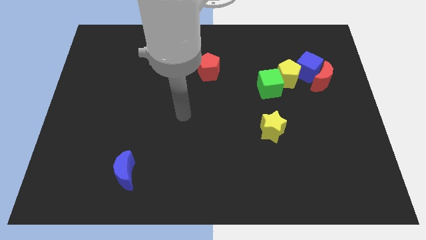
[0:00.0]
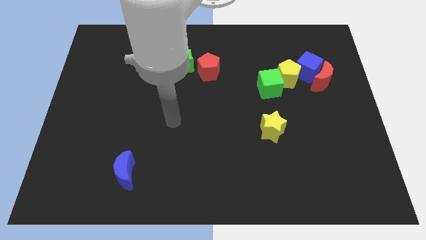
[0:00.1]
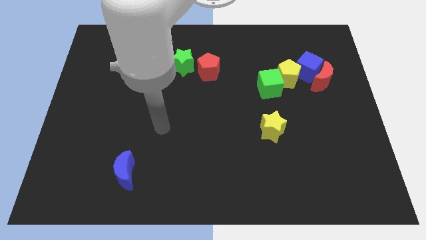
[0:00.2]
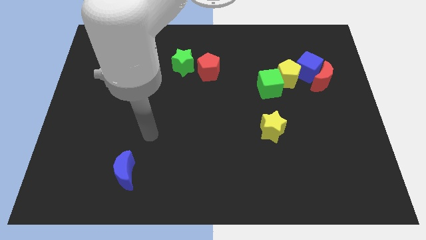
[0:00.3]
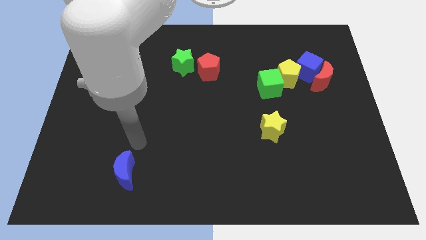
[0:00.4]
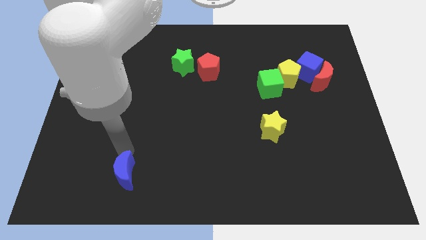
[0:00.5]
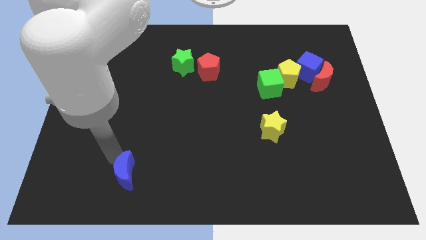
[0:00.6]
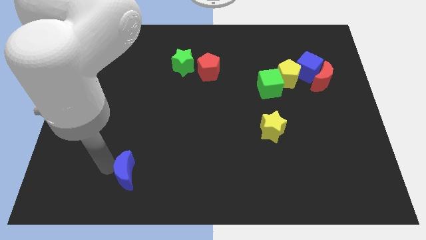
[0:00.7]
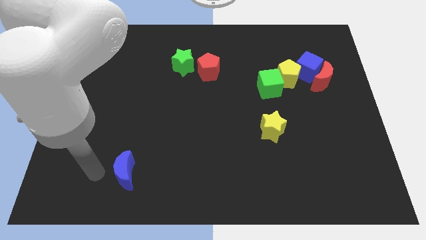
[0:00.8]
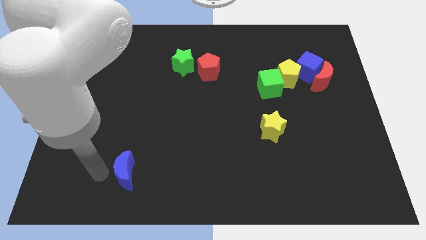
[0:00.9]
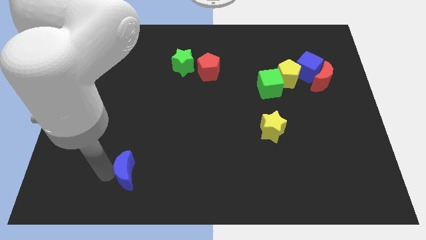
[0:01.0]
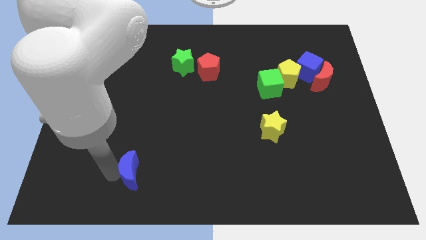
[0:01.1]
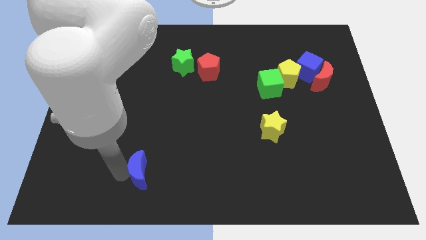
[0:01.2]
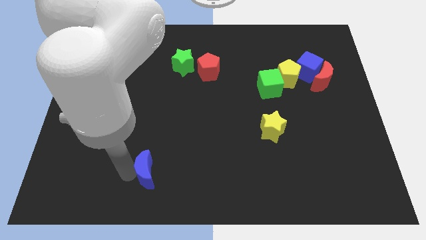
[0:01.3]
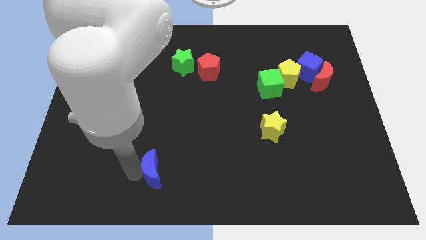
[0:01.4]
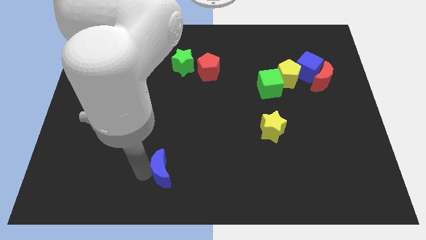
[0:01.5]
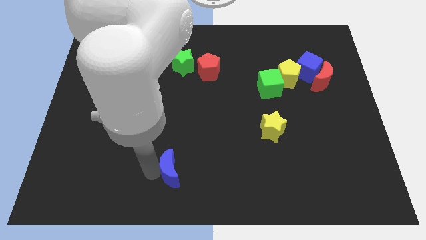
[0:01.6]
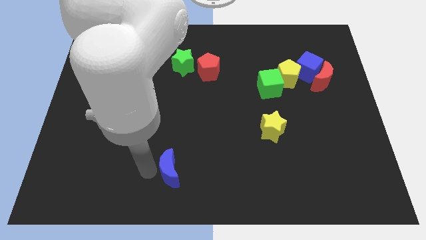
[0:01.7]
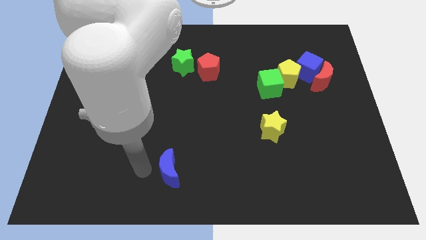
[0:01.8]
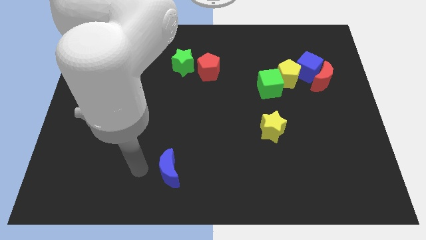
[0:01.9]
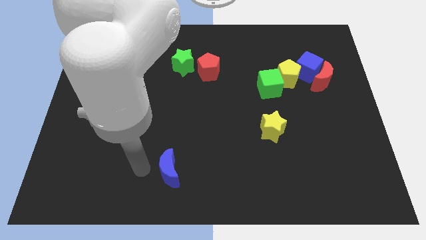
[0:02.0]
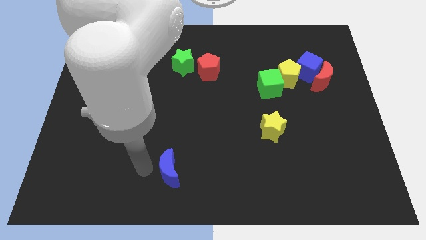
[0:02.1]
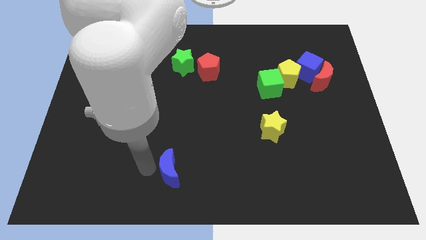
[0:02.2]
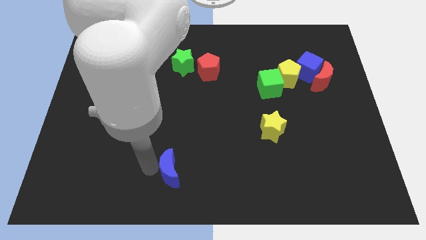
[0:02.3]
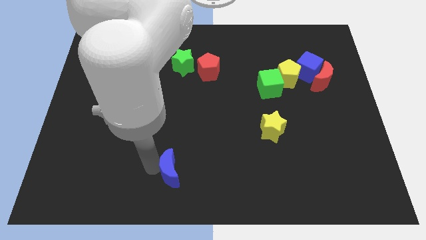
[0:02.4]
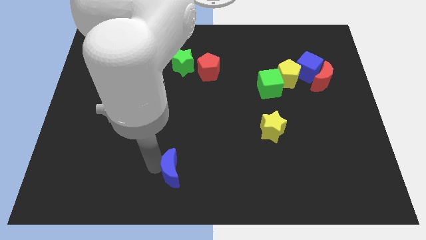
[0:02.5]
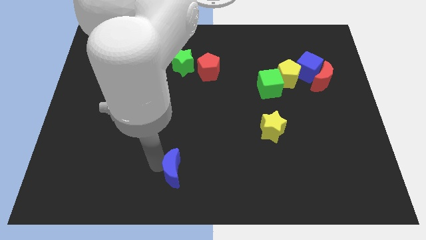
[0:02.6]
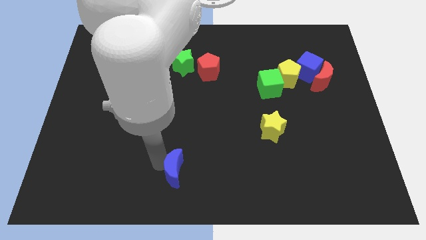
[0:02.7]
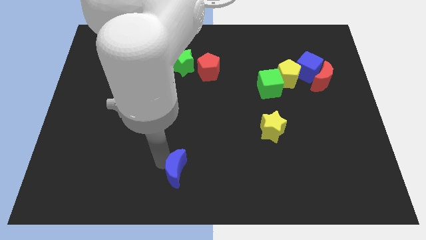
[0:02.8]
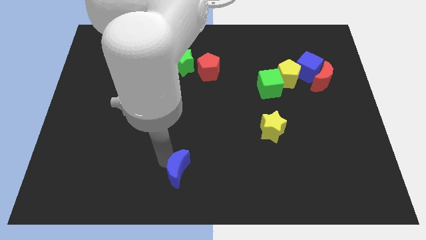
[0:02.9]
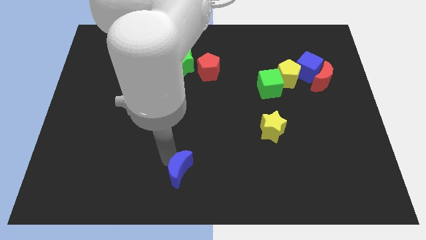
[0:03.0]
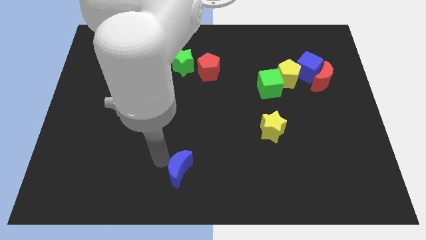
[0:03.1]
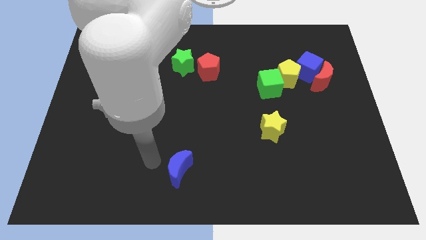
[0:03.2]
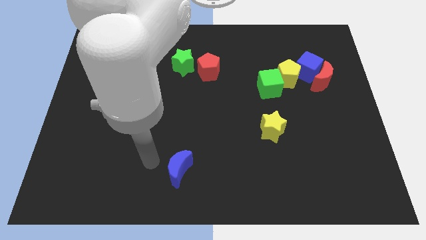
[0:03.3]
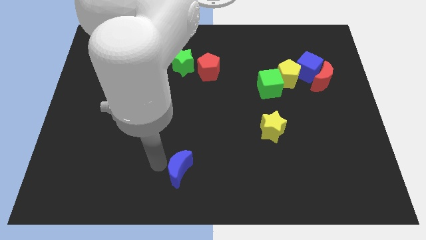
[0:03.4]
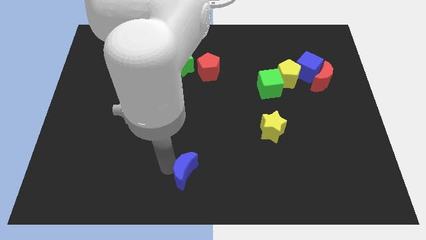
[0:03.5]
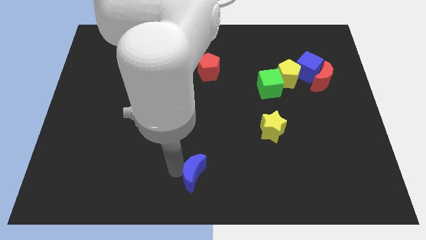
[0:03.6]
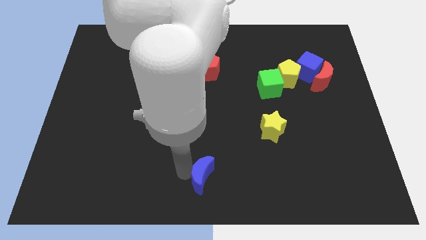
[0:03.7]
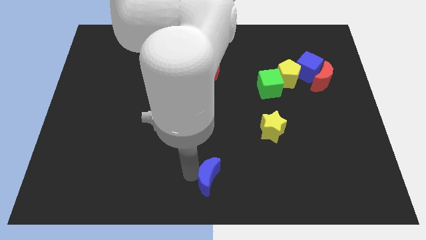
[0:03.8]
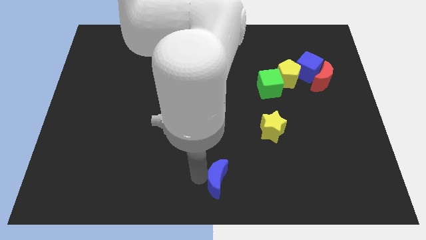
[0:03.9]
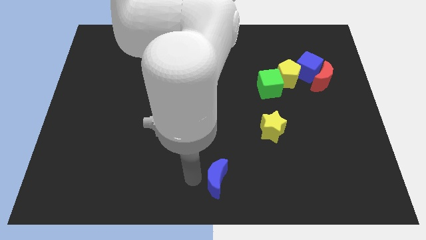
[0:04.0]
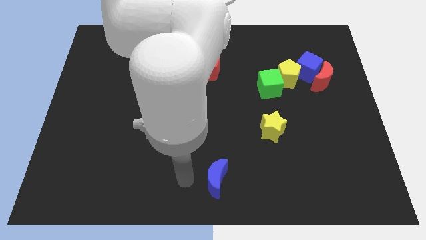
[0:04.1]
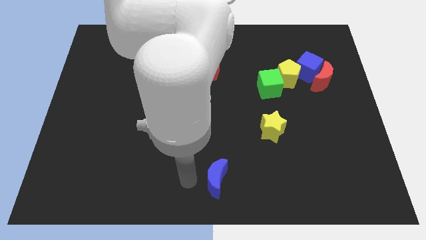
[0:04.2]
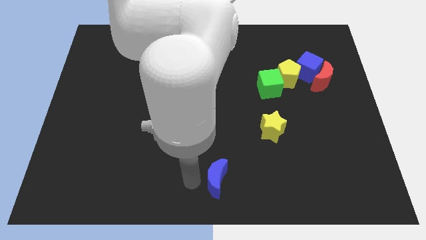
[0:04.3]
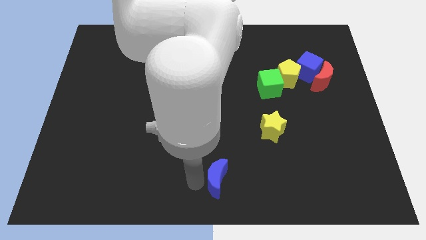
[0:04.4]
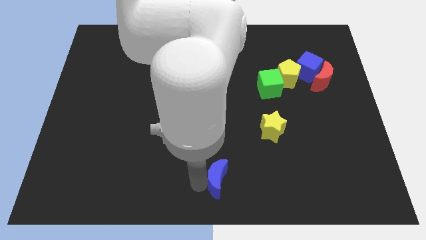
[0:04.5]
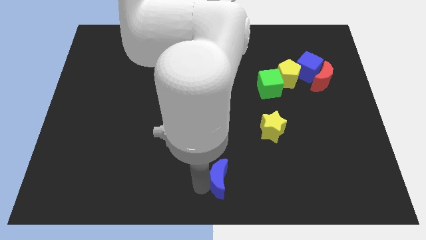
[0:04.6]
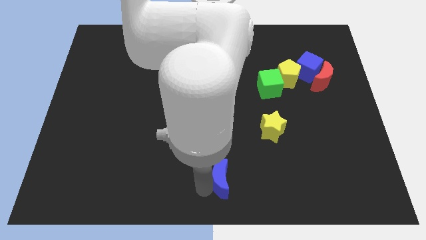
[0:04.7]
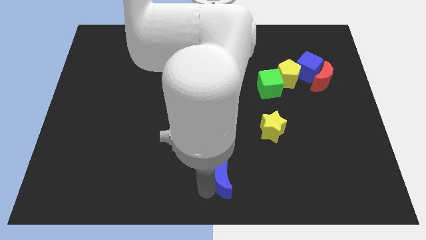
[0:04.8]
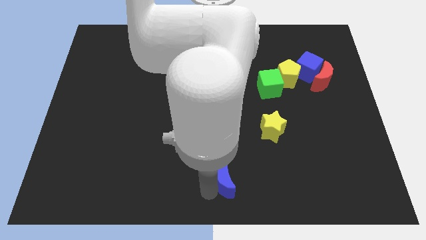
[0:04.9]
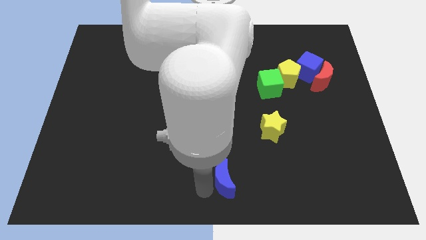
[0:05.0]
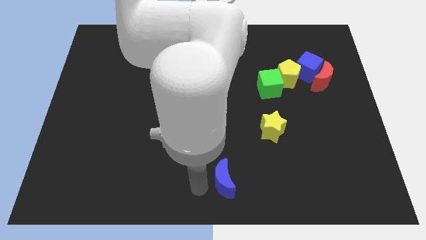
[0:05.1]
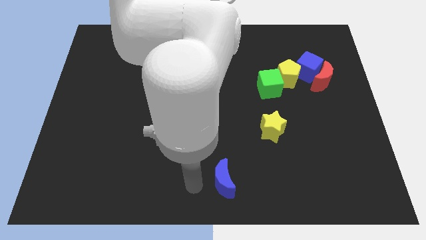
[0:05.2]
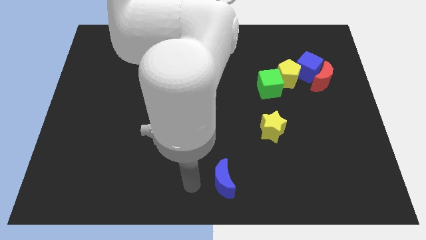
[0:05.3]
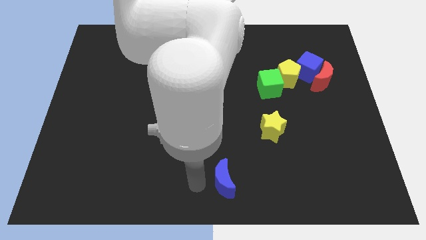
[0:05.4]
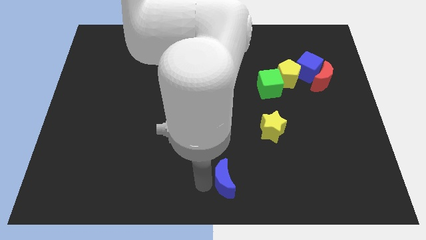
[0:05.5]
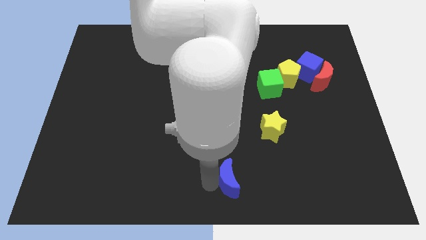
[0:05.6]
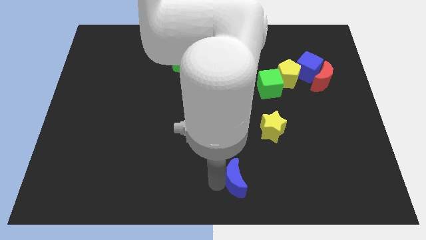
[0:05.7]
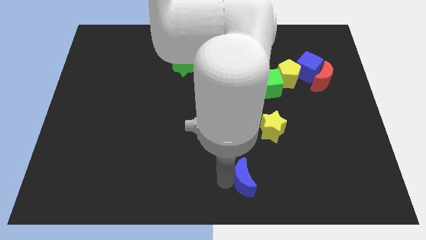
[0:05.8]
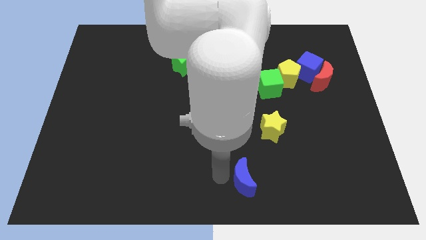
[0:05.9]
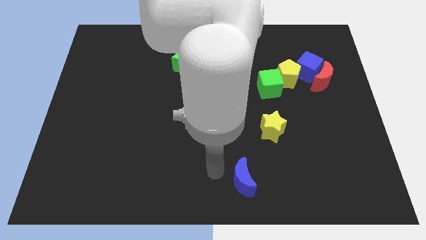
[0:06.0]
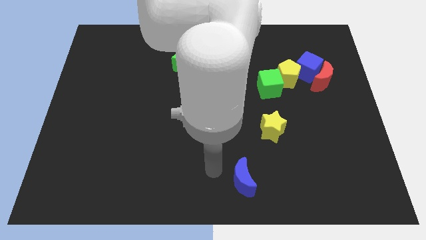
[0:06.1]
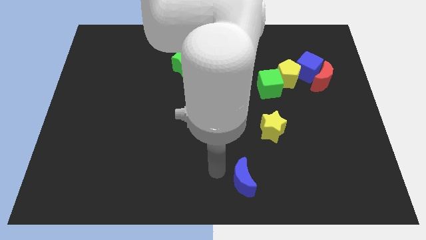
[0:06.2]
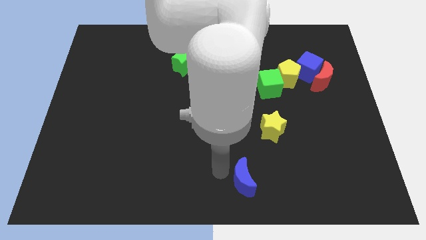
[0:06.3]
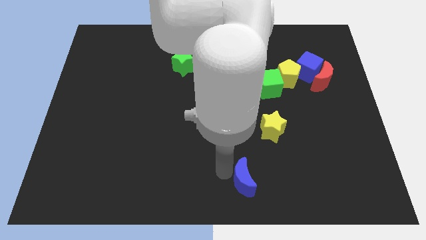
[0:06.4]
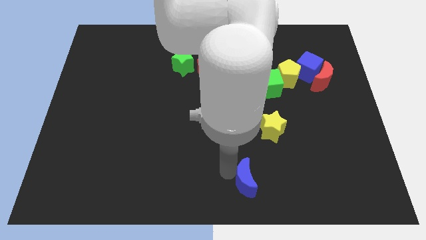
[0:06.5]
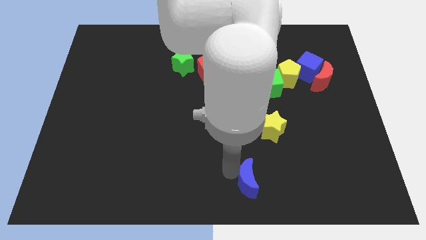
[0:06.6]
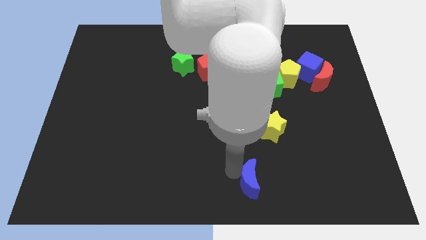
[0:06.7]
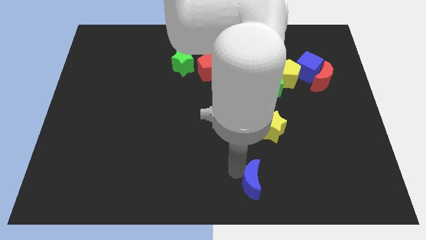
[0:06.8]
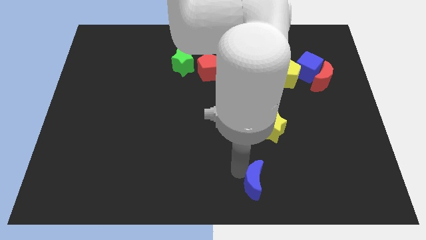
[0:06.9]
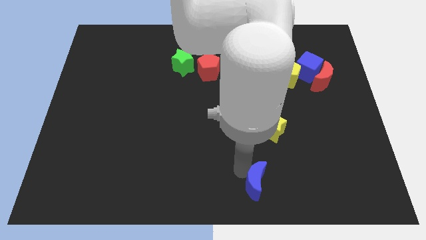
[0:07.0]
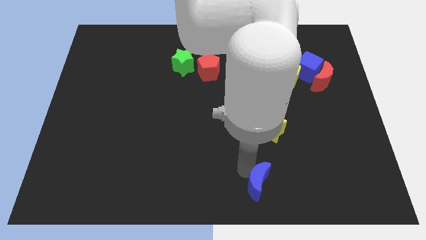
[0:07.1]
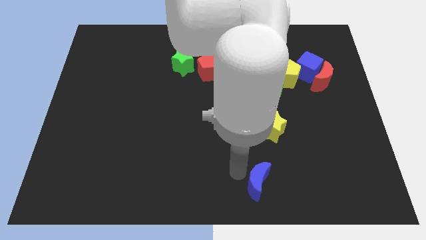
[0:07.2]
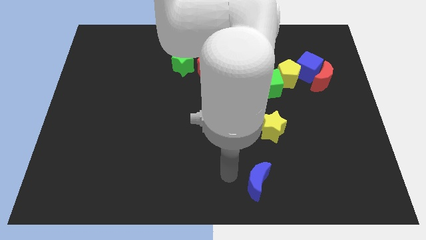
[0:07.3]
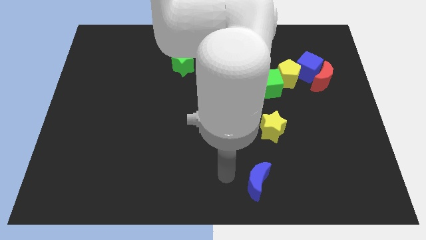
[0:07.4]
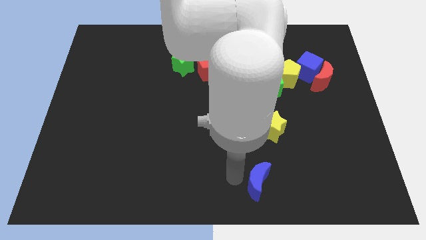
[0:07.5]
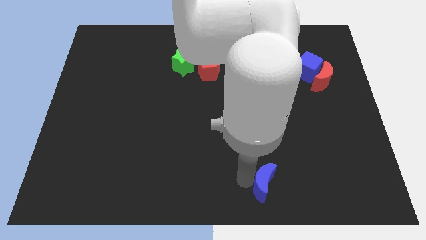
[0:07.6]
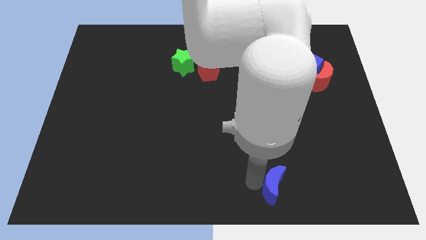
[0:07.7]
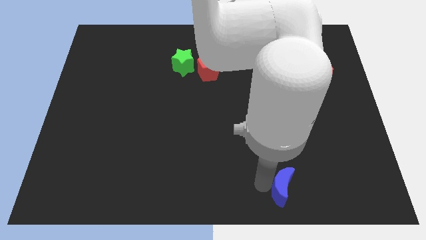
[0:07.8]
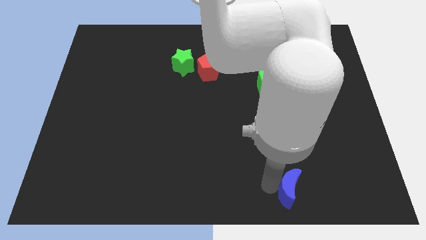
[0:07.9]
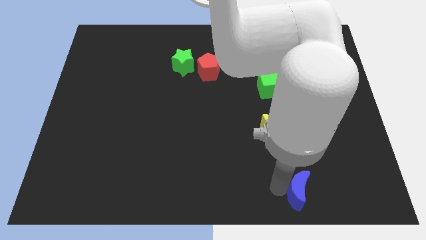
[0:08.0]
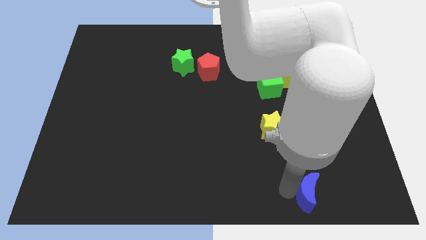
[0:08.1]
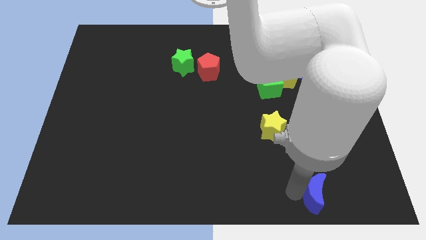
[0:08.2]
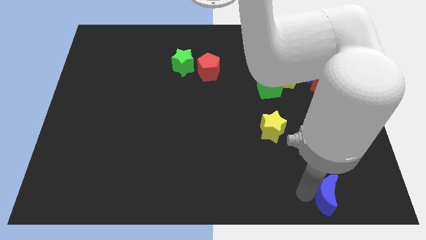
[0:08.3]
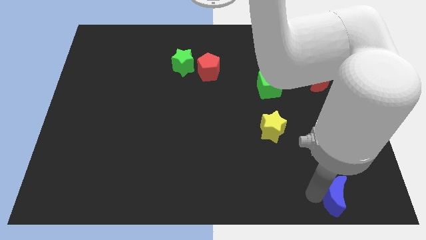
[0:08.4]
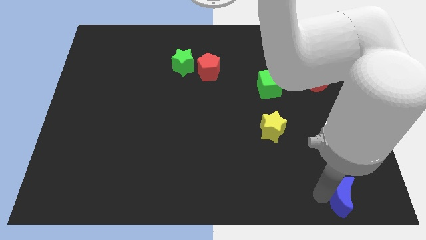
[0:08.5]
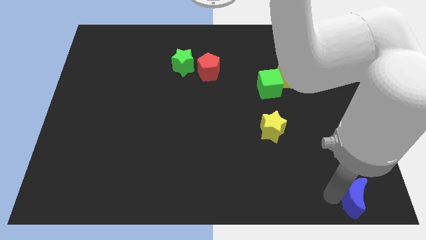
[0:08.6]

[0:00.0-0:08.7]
put the blue moon to the lower right corner
